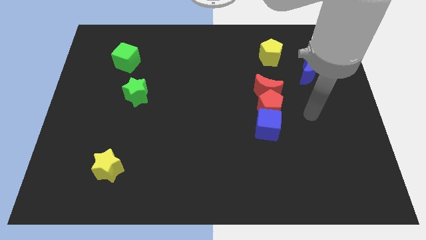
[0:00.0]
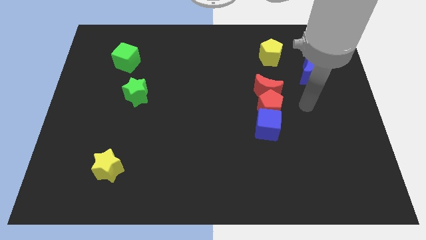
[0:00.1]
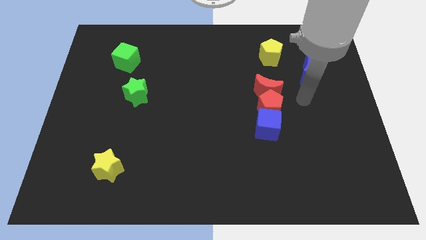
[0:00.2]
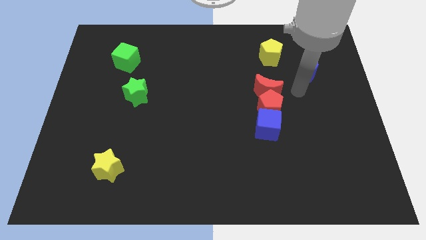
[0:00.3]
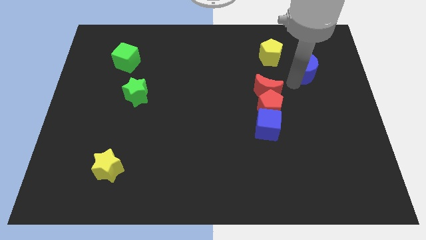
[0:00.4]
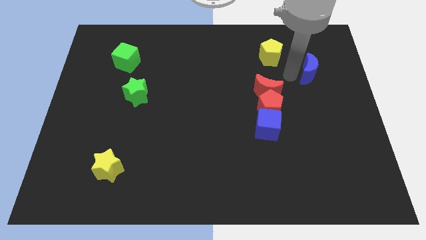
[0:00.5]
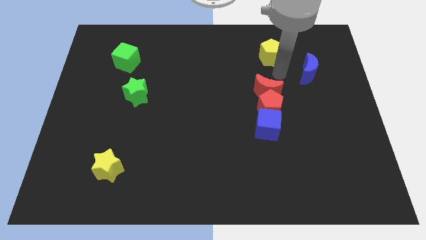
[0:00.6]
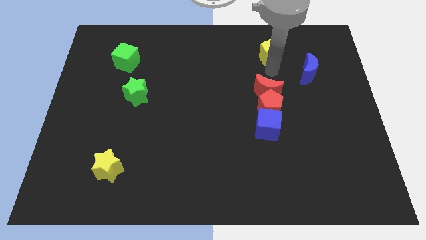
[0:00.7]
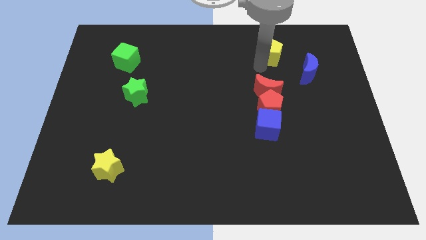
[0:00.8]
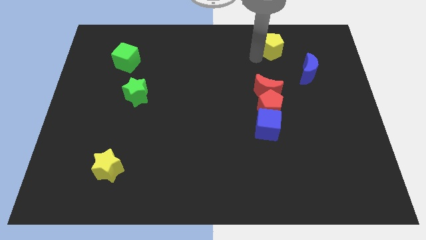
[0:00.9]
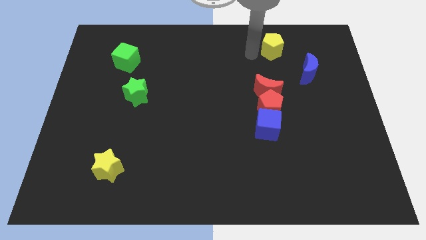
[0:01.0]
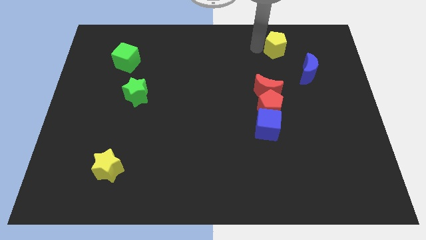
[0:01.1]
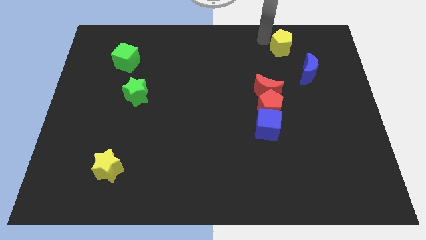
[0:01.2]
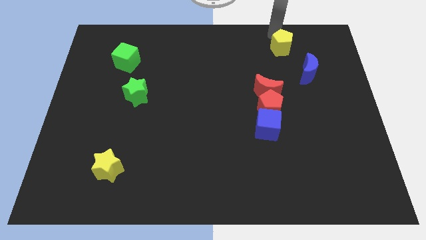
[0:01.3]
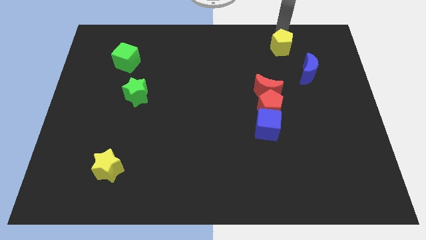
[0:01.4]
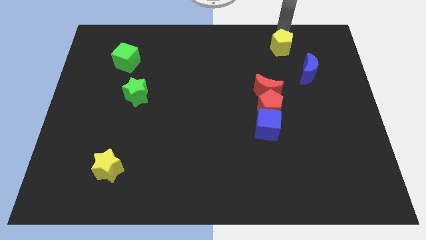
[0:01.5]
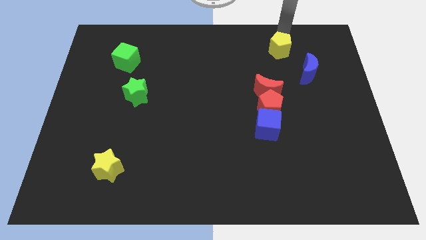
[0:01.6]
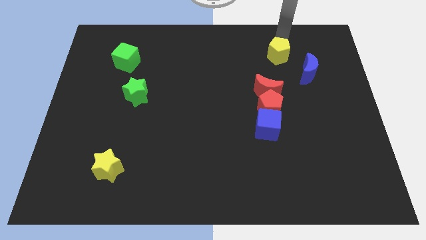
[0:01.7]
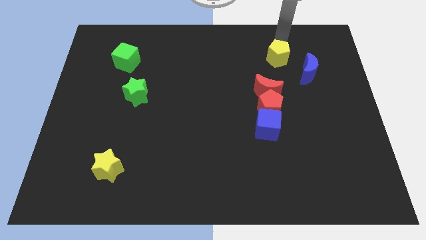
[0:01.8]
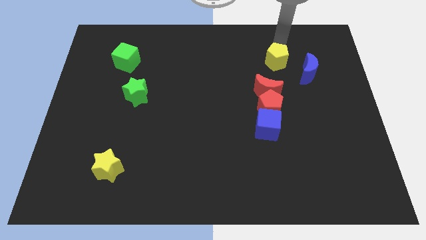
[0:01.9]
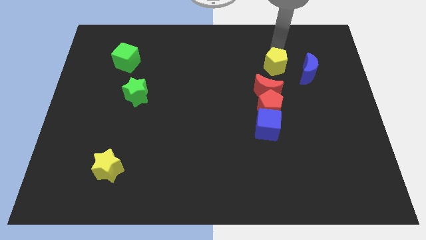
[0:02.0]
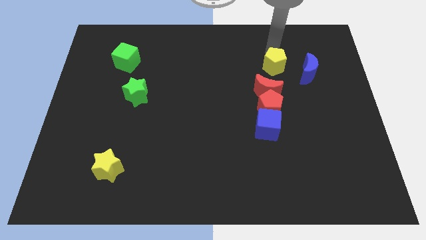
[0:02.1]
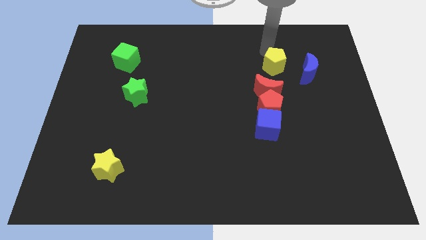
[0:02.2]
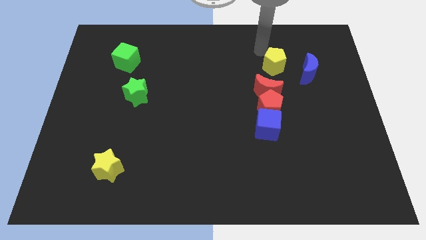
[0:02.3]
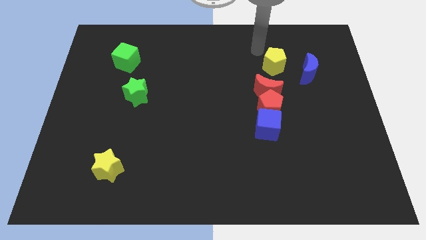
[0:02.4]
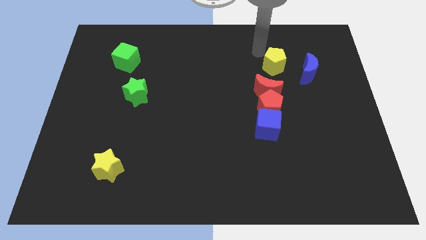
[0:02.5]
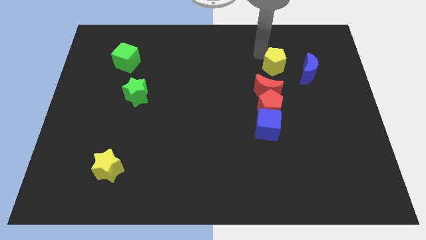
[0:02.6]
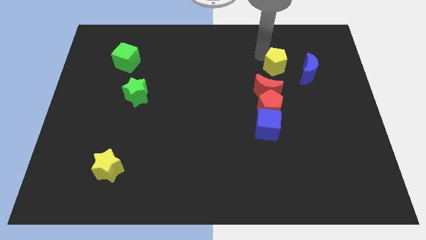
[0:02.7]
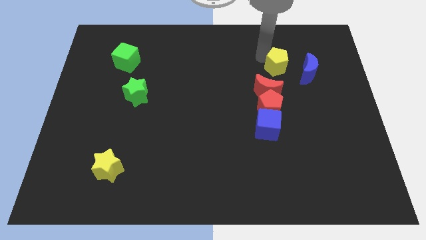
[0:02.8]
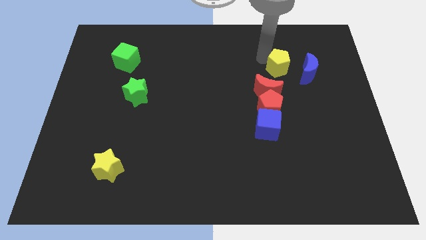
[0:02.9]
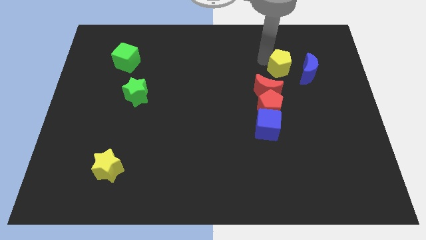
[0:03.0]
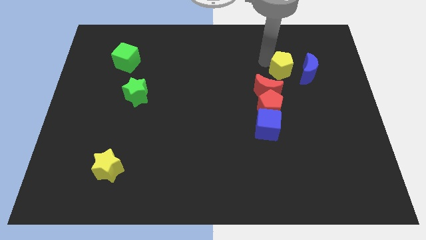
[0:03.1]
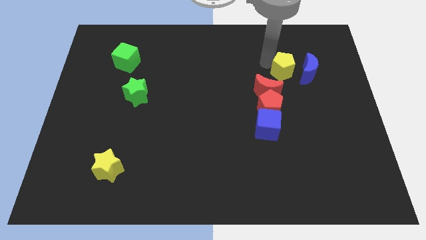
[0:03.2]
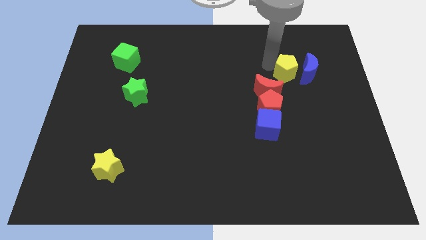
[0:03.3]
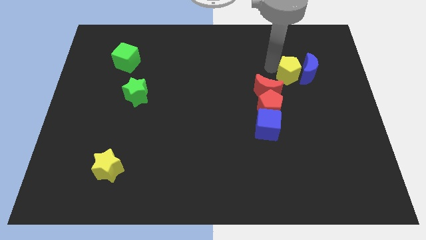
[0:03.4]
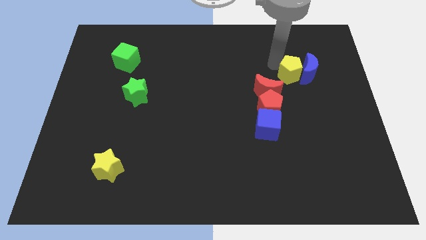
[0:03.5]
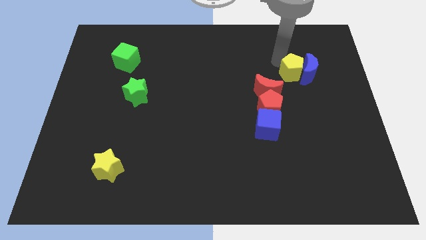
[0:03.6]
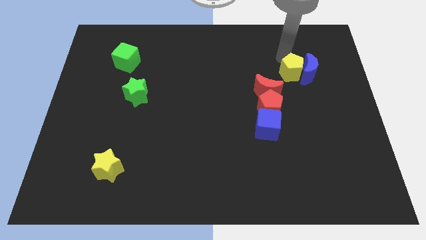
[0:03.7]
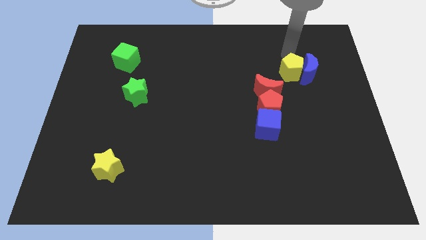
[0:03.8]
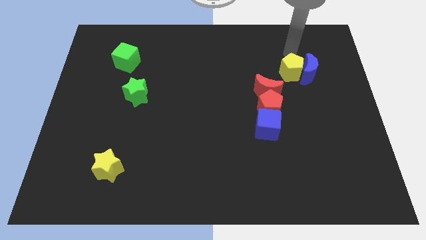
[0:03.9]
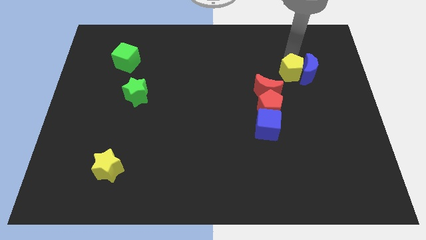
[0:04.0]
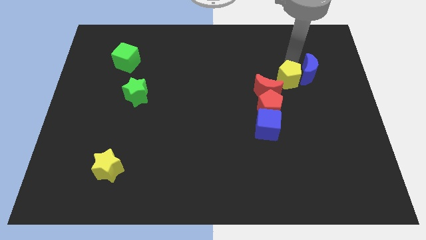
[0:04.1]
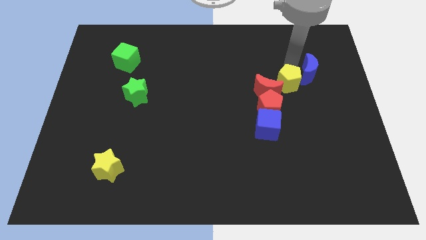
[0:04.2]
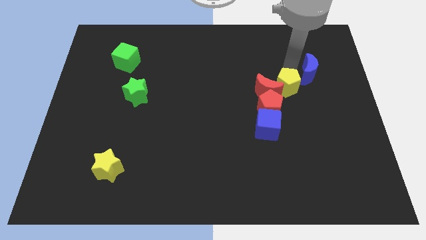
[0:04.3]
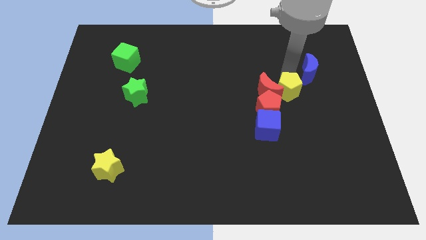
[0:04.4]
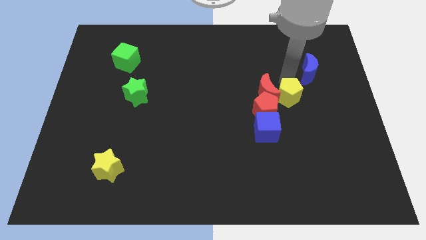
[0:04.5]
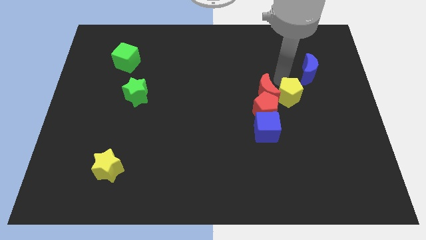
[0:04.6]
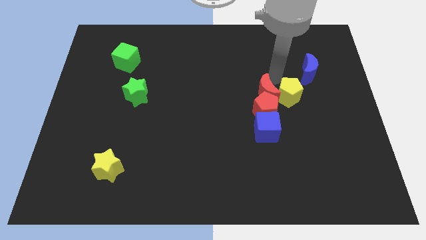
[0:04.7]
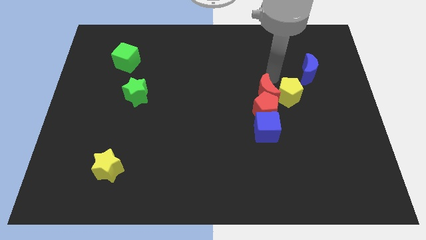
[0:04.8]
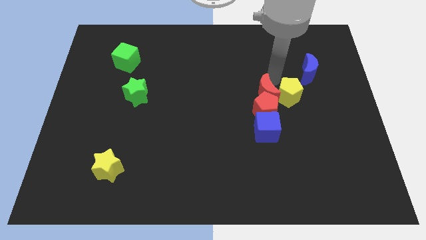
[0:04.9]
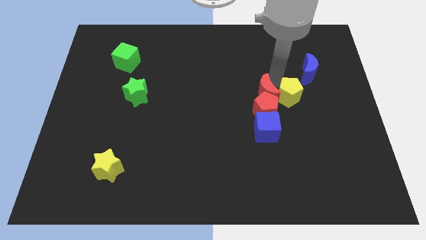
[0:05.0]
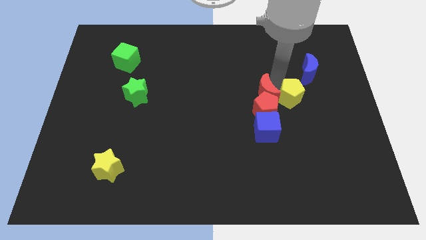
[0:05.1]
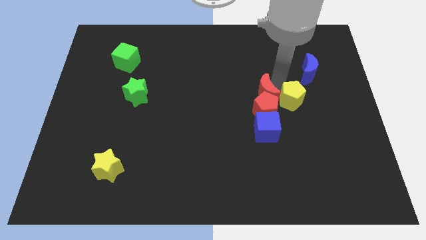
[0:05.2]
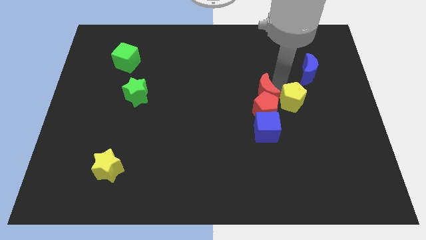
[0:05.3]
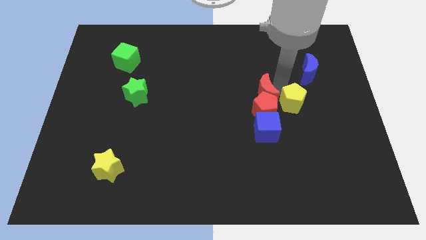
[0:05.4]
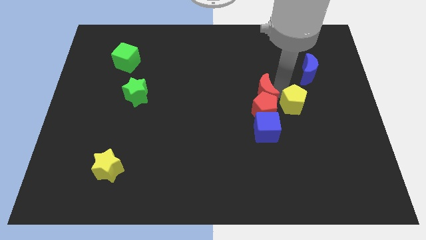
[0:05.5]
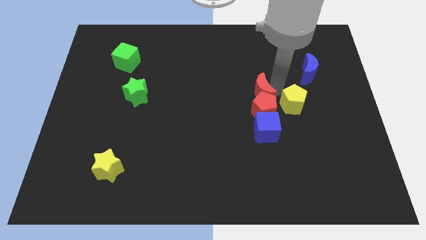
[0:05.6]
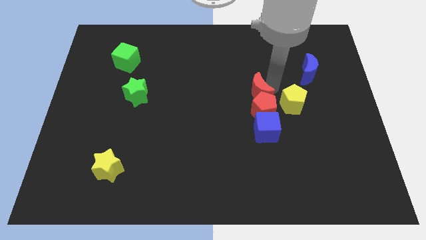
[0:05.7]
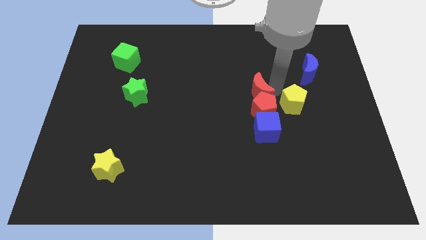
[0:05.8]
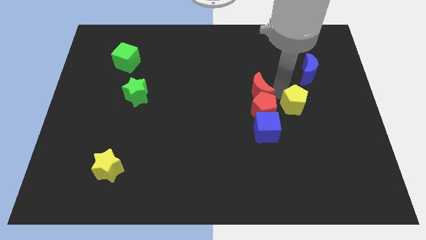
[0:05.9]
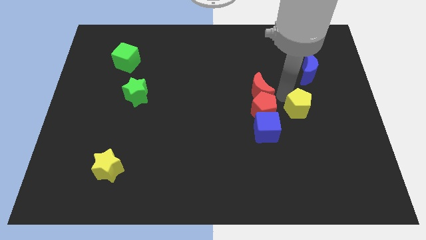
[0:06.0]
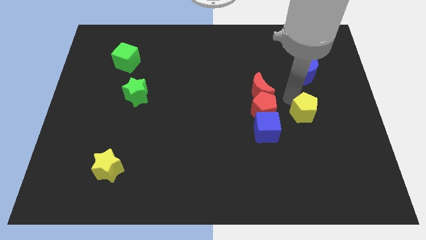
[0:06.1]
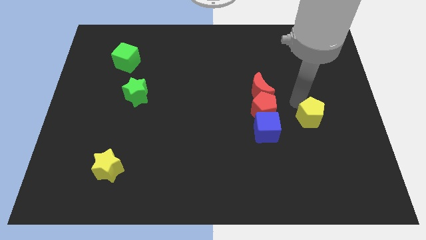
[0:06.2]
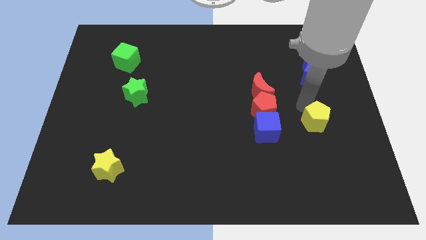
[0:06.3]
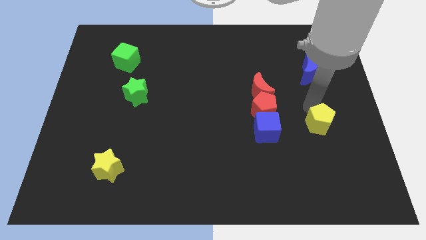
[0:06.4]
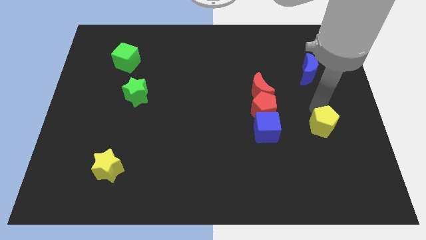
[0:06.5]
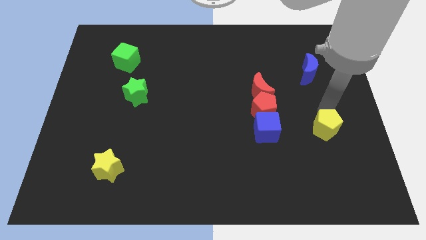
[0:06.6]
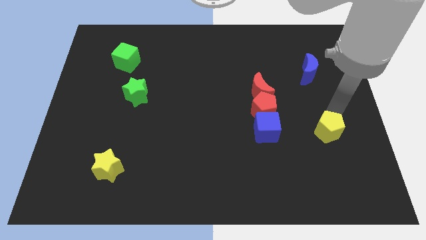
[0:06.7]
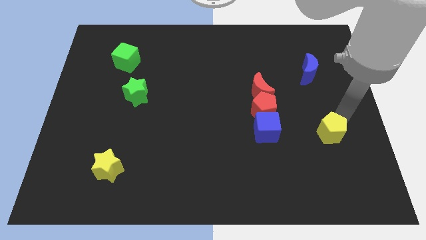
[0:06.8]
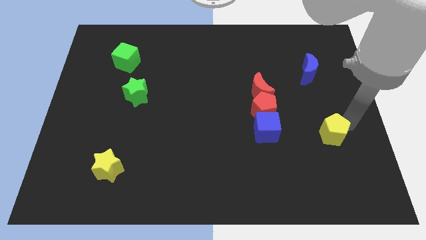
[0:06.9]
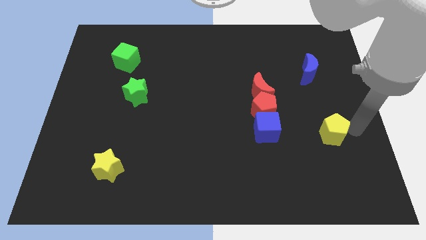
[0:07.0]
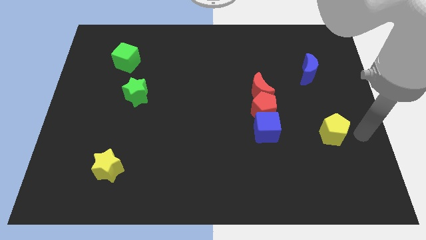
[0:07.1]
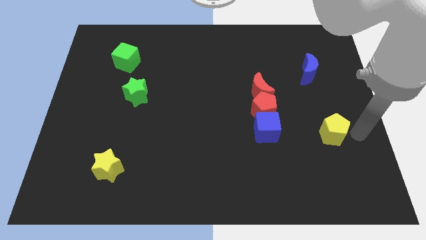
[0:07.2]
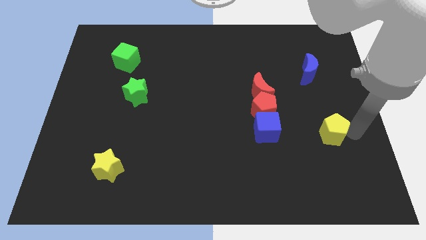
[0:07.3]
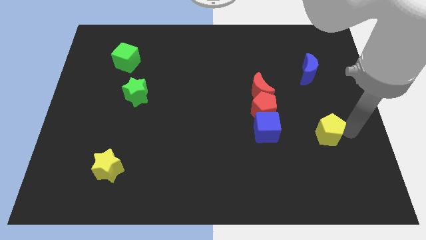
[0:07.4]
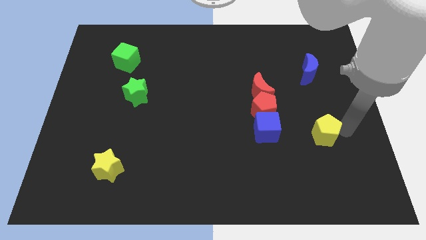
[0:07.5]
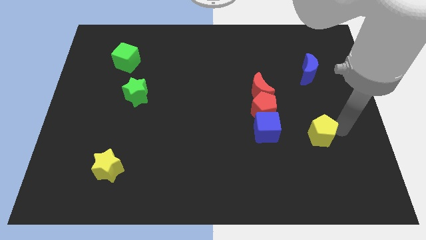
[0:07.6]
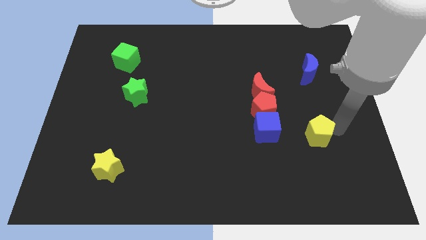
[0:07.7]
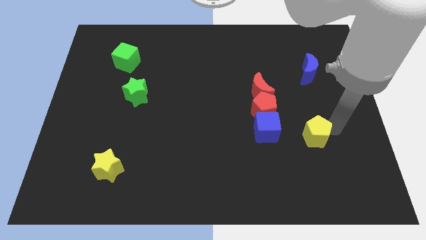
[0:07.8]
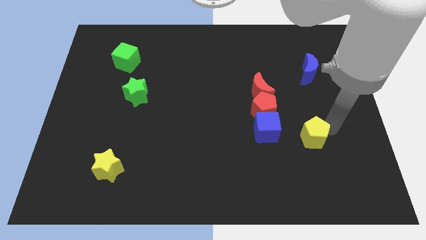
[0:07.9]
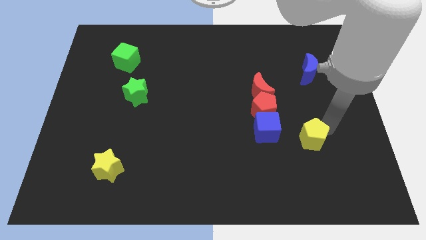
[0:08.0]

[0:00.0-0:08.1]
move the yellow pentagon to the bottom right of the red pentagon
